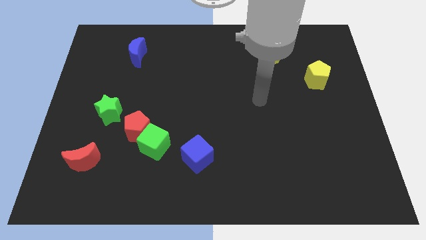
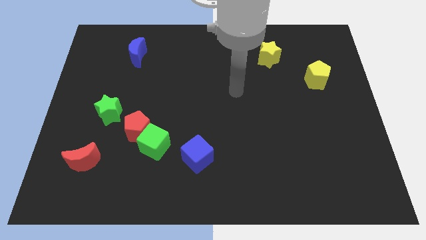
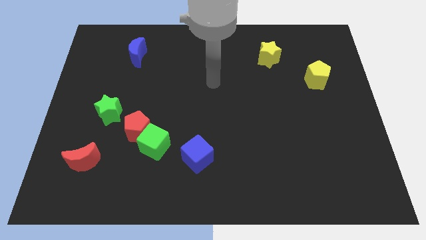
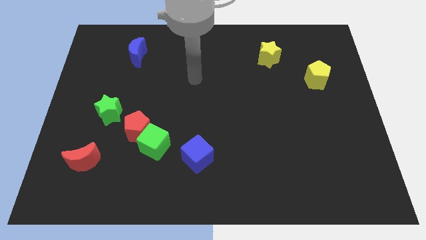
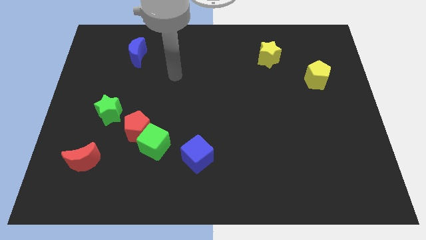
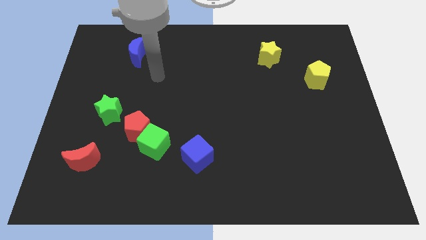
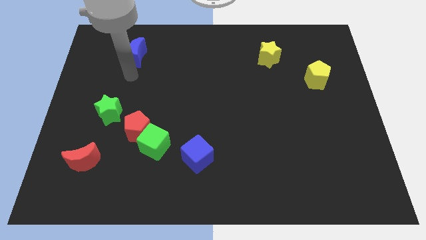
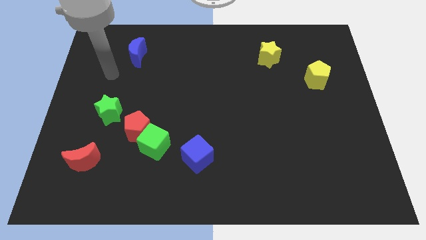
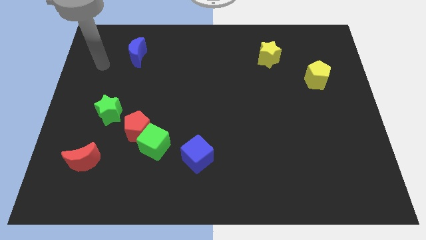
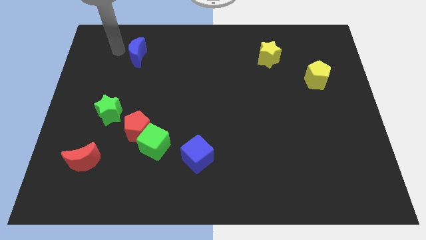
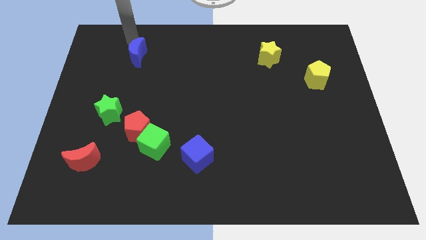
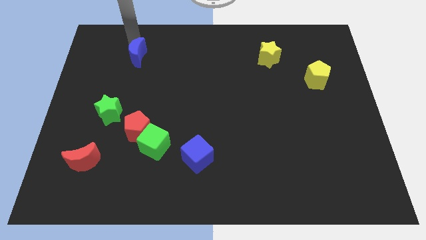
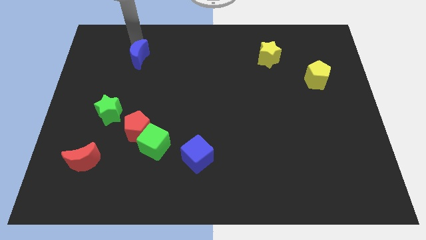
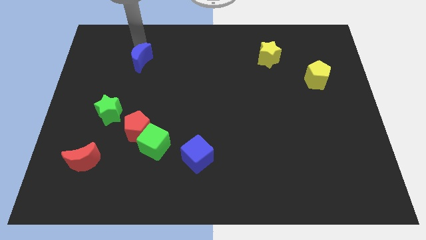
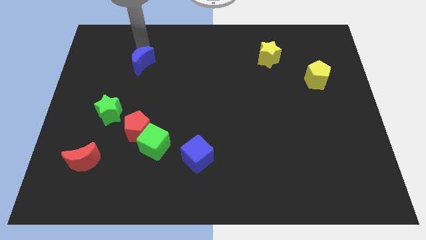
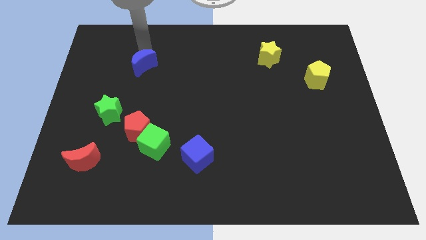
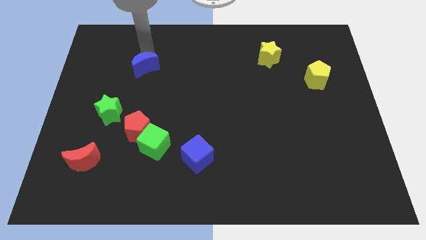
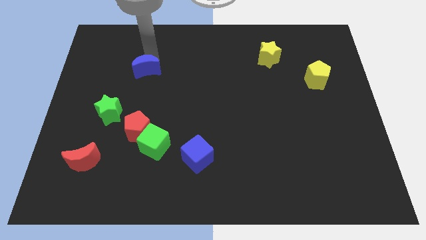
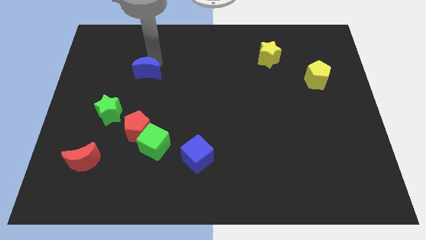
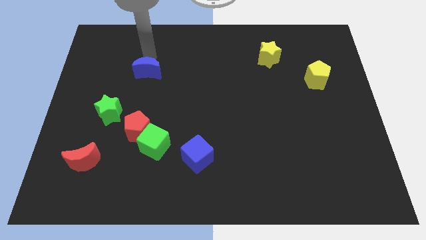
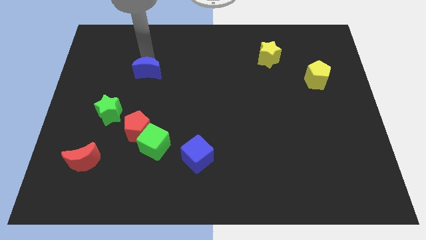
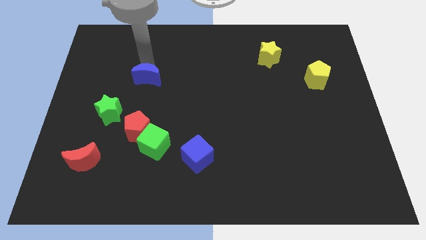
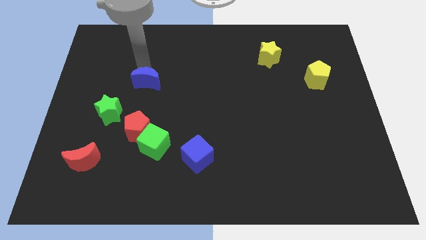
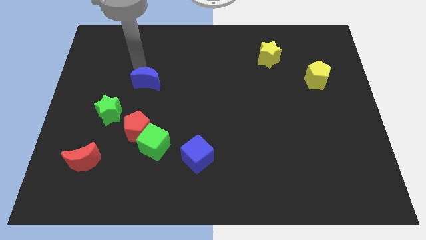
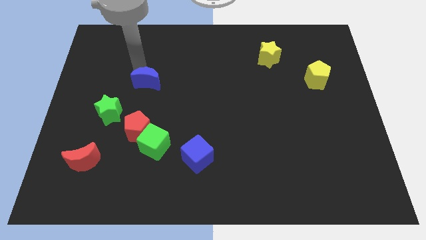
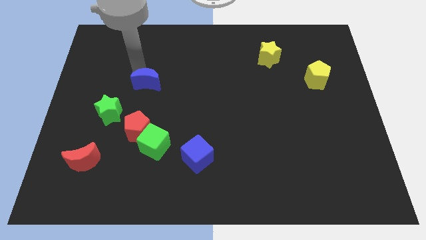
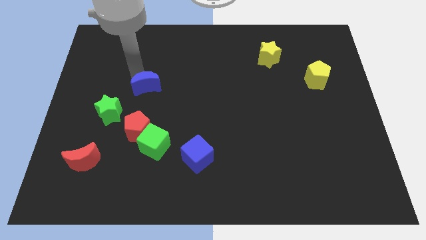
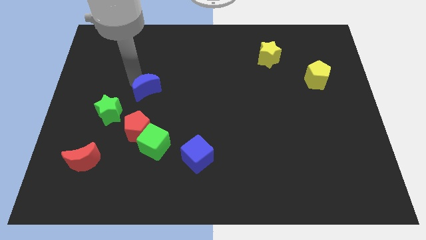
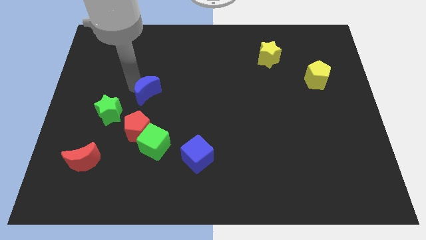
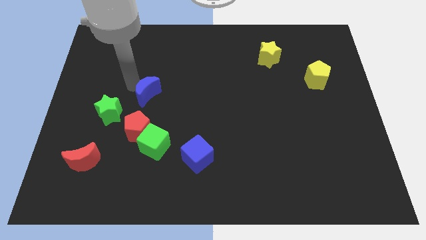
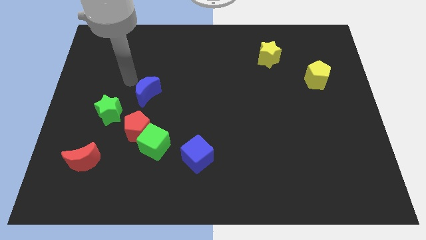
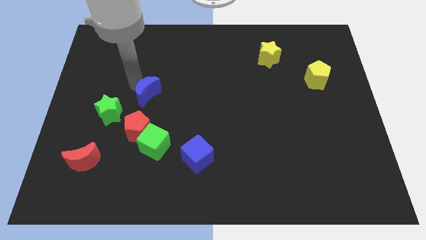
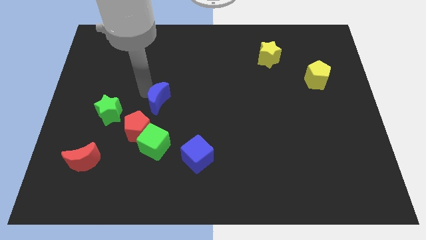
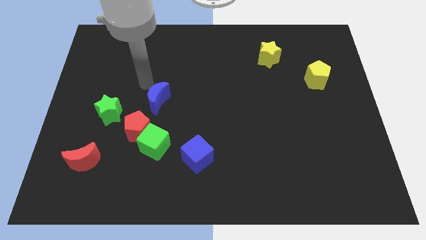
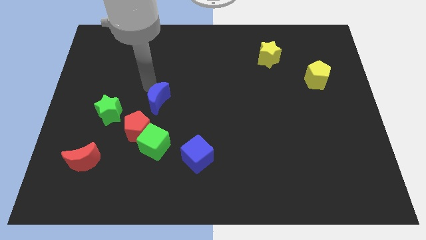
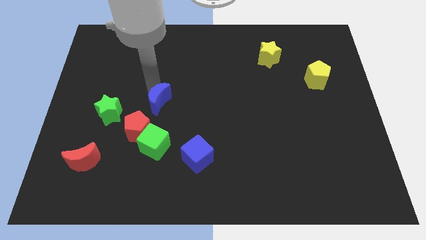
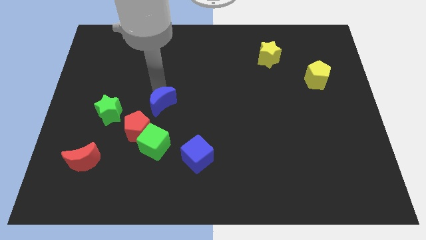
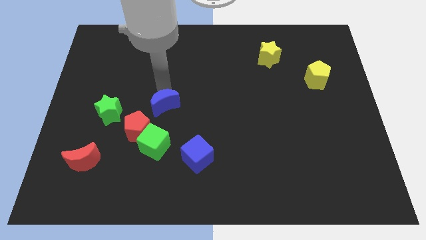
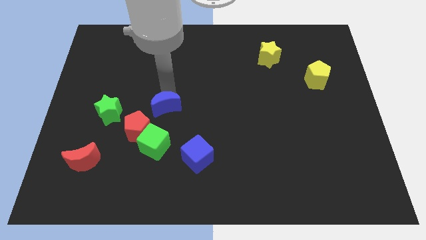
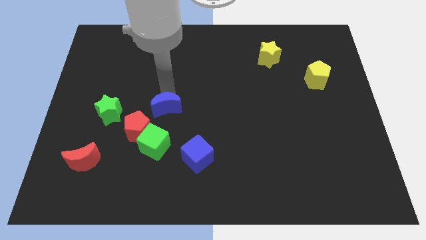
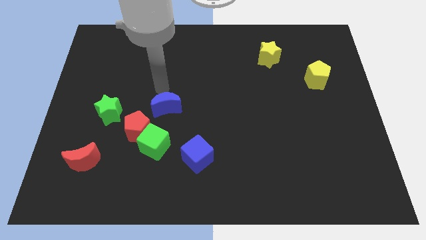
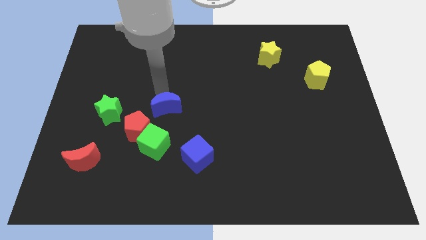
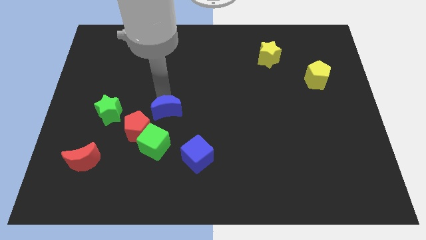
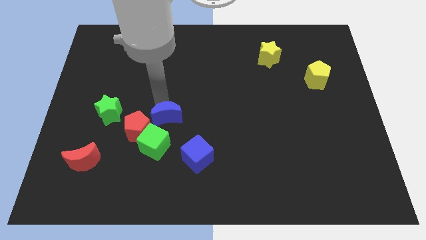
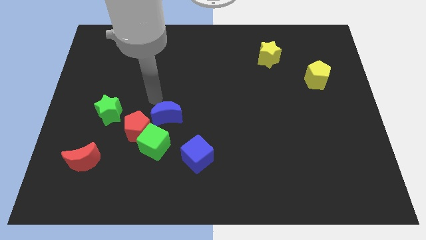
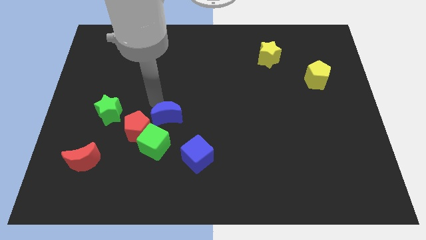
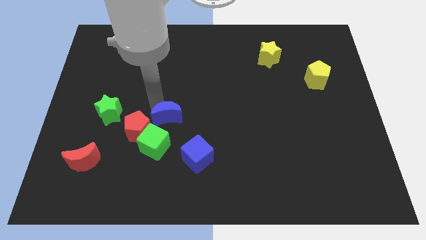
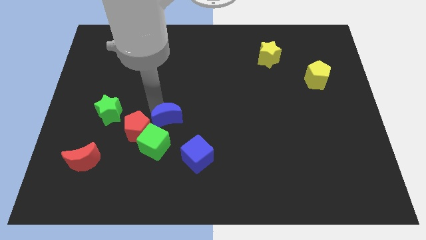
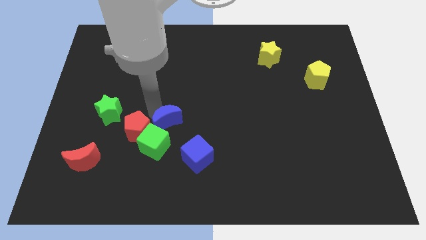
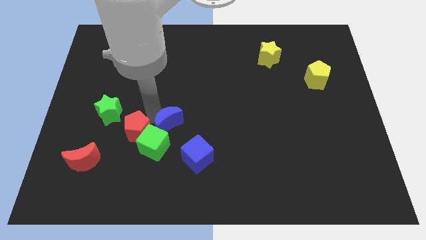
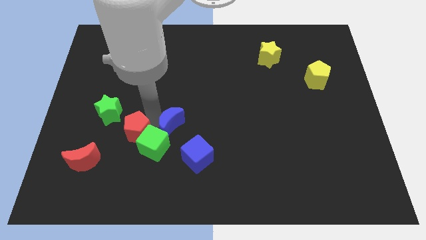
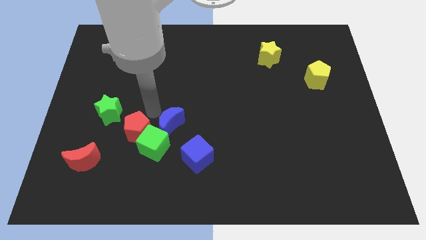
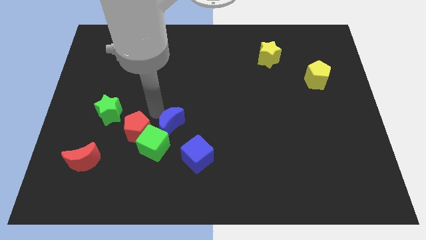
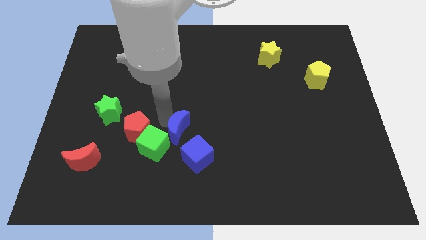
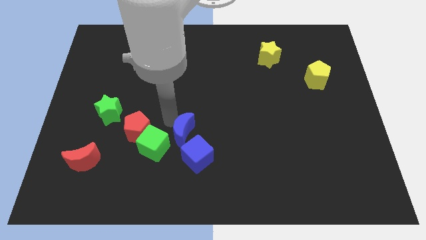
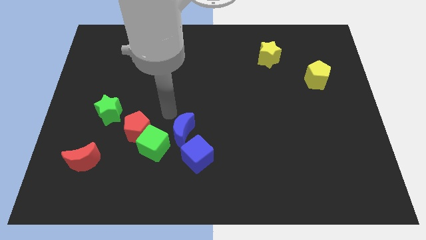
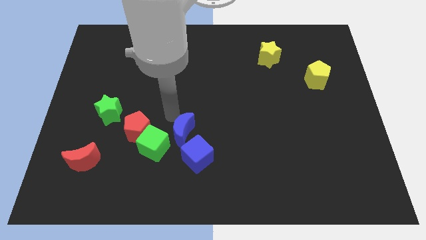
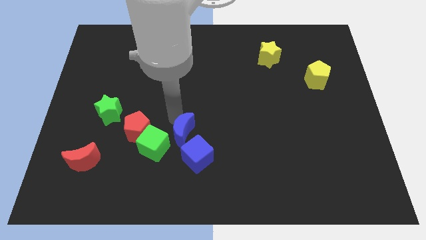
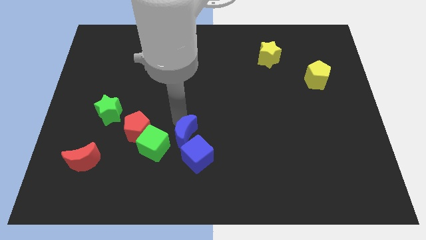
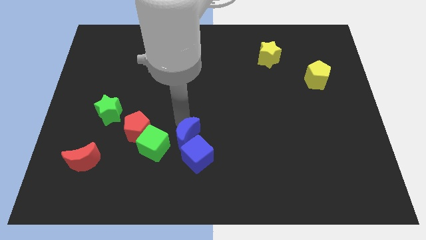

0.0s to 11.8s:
move the blue moon close to the blue cube
